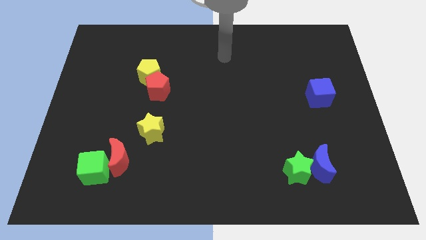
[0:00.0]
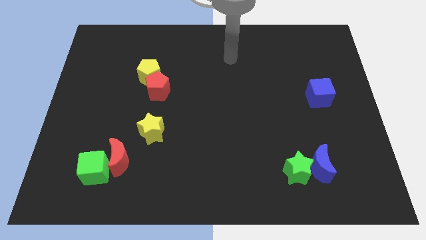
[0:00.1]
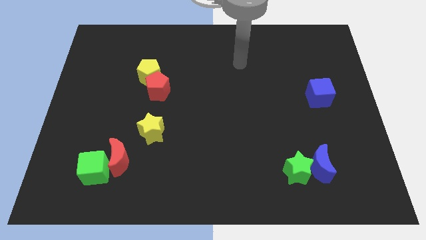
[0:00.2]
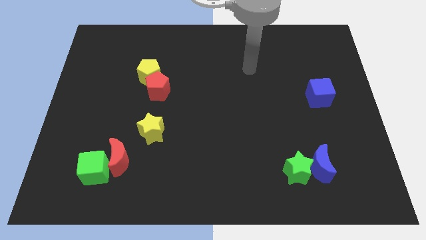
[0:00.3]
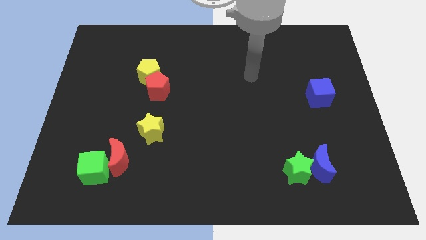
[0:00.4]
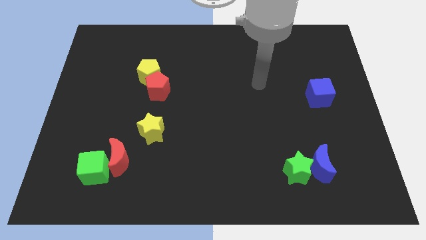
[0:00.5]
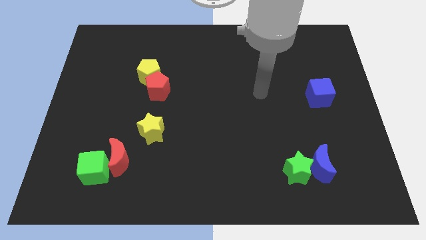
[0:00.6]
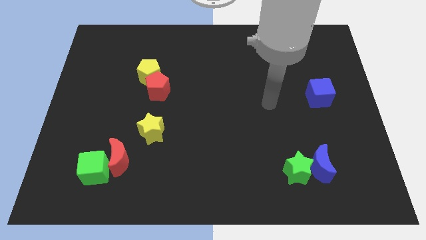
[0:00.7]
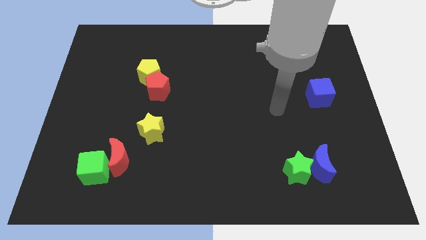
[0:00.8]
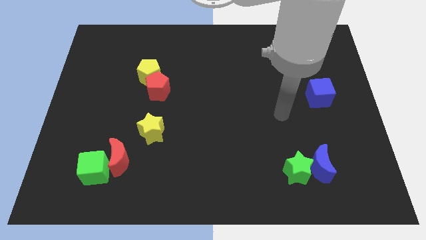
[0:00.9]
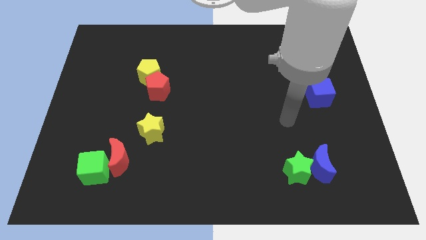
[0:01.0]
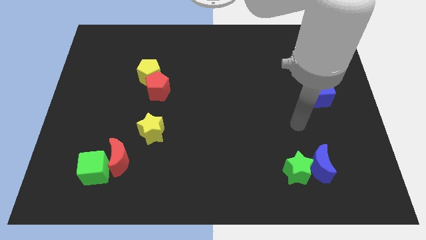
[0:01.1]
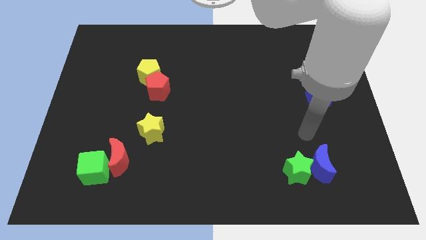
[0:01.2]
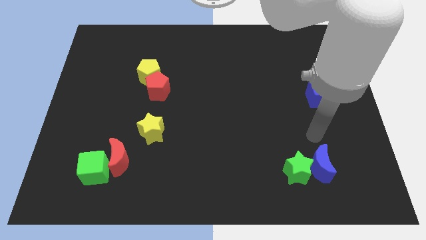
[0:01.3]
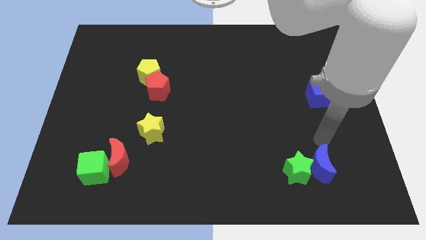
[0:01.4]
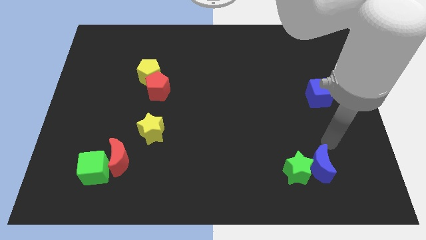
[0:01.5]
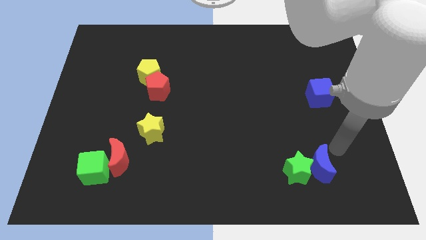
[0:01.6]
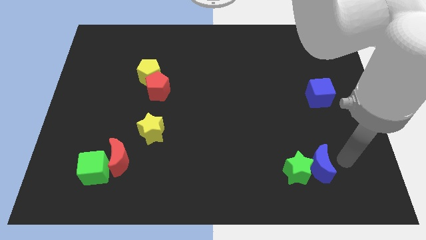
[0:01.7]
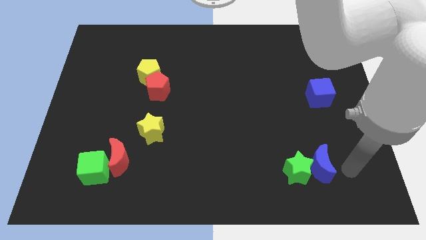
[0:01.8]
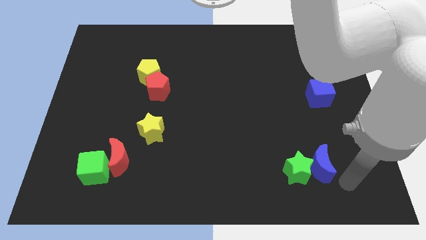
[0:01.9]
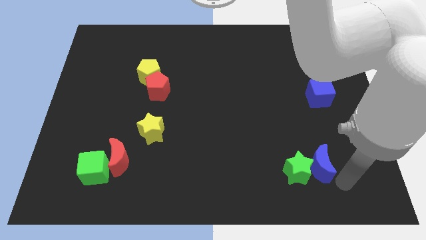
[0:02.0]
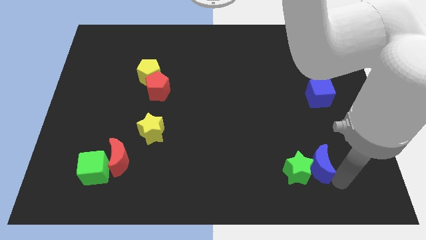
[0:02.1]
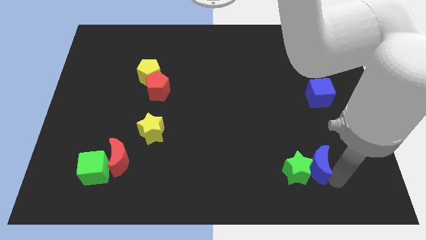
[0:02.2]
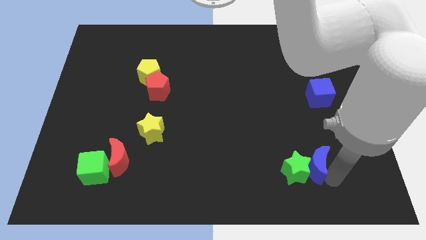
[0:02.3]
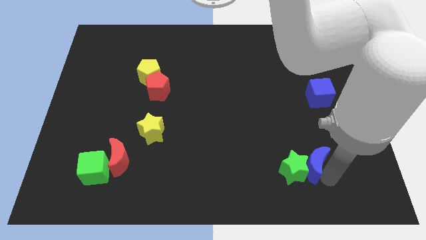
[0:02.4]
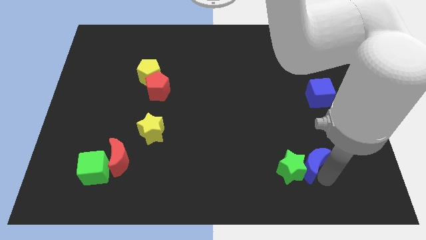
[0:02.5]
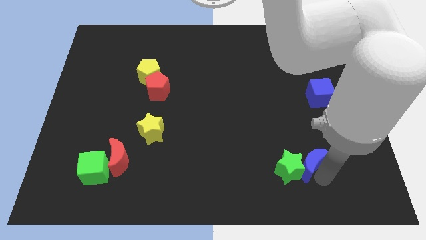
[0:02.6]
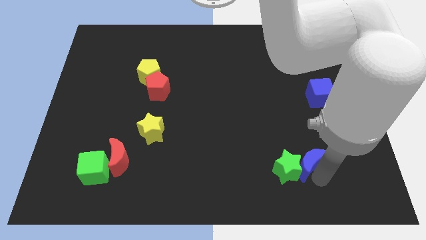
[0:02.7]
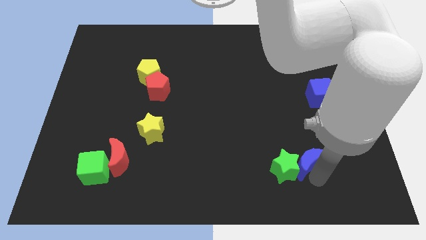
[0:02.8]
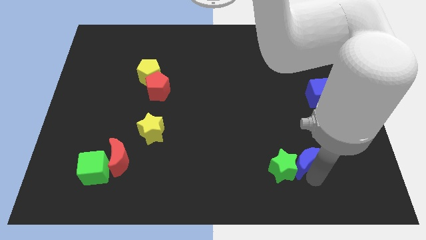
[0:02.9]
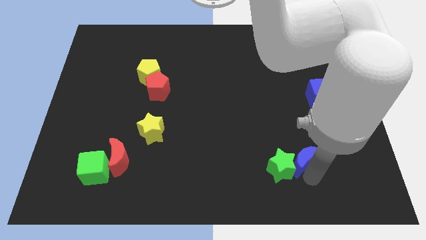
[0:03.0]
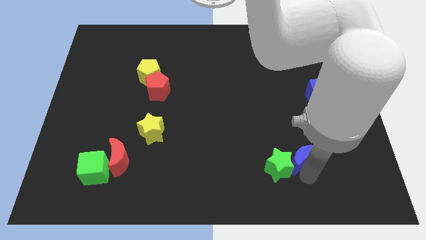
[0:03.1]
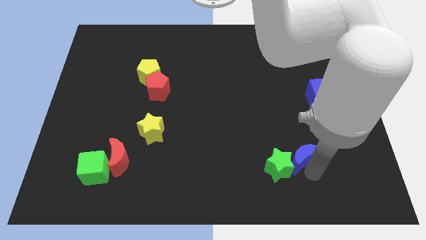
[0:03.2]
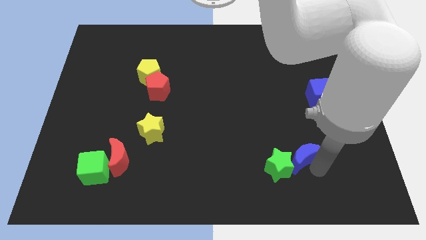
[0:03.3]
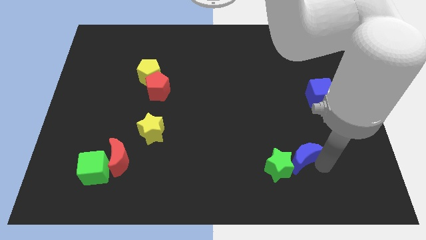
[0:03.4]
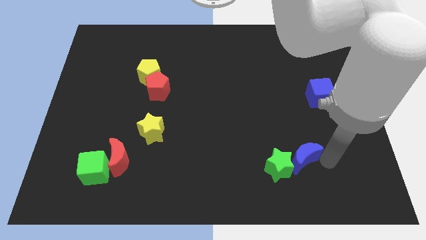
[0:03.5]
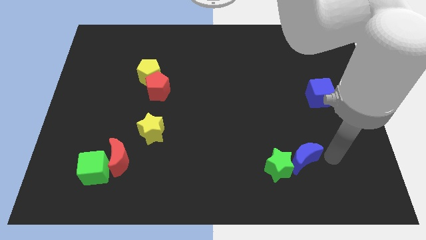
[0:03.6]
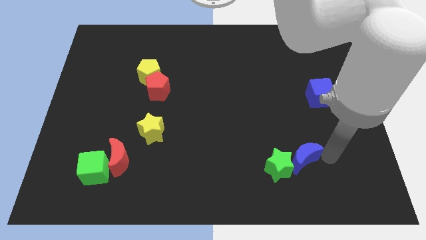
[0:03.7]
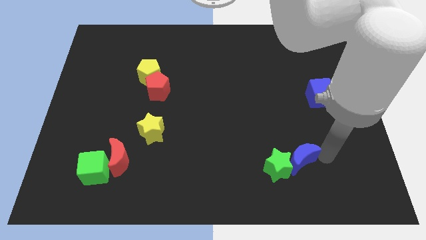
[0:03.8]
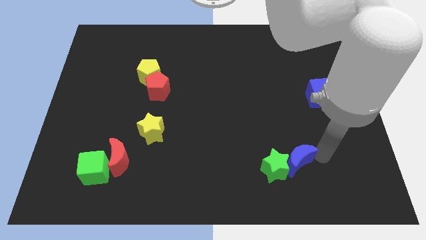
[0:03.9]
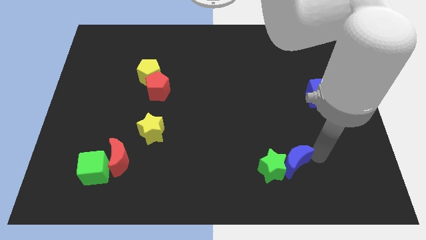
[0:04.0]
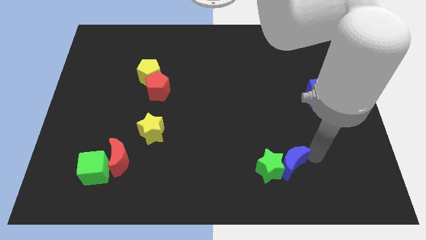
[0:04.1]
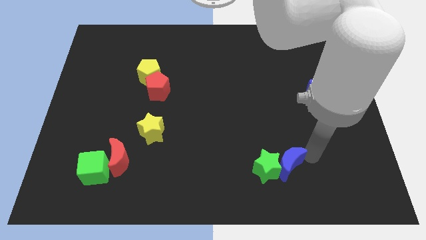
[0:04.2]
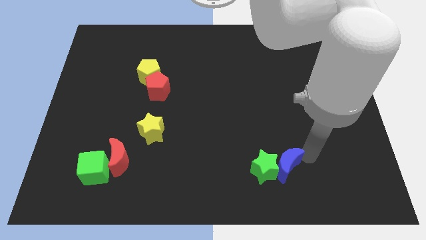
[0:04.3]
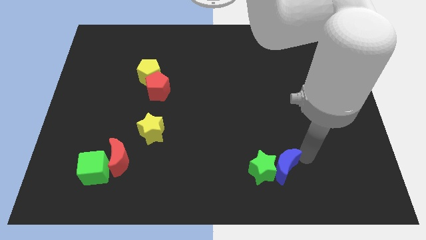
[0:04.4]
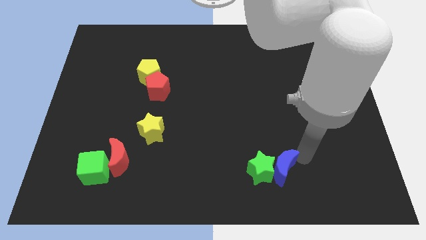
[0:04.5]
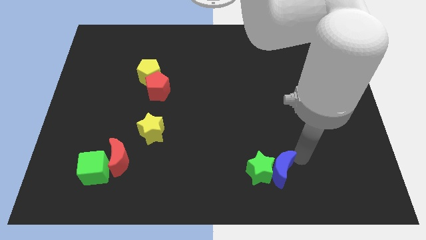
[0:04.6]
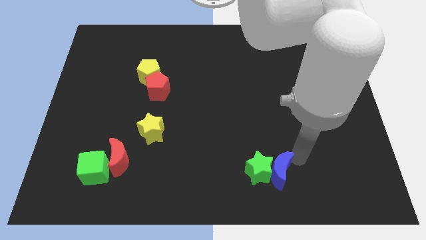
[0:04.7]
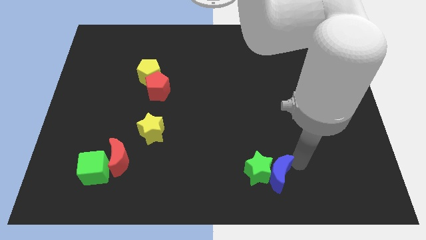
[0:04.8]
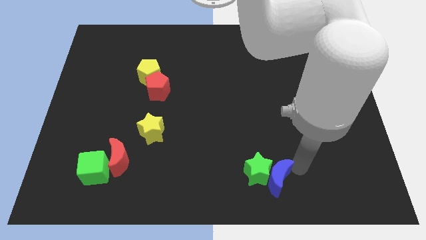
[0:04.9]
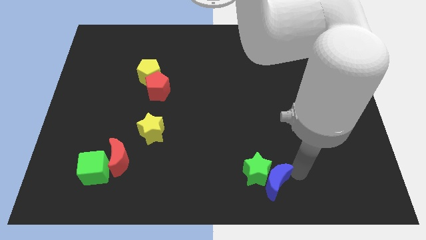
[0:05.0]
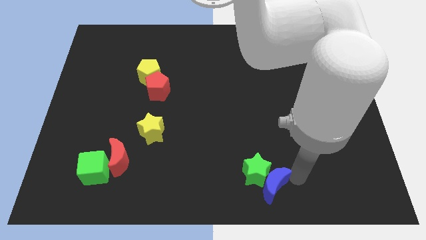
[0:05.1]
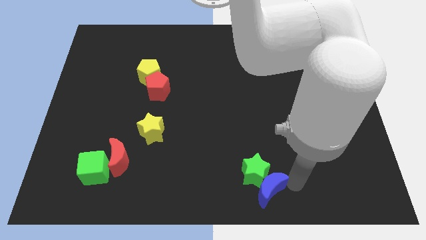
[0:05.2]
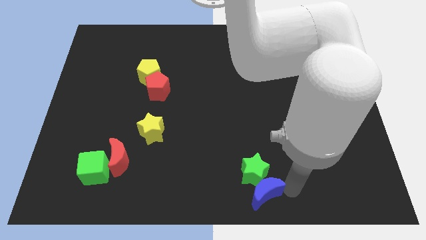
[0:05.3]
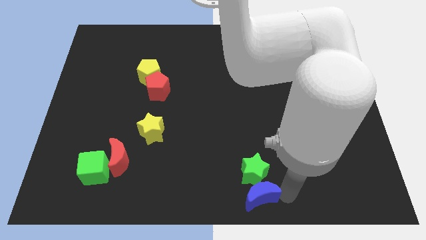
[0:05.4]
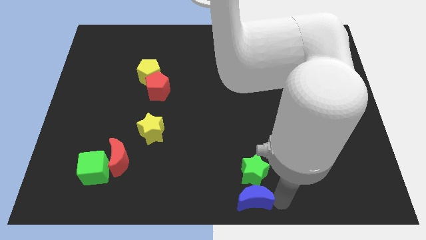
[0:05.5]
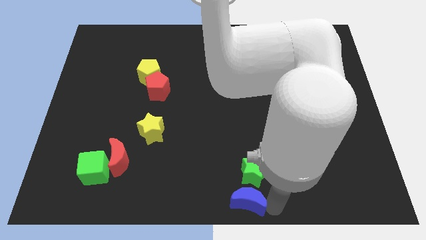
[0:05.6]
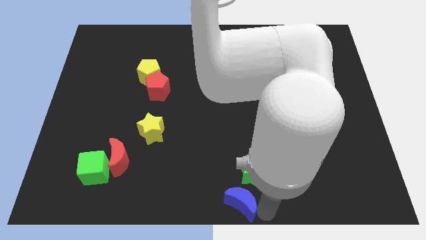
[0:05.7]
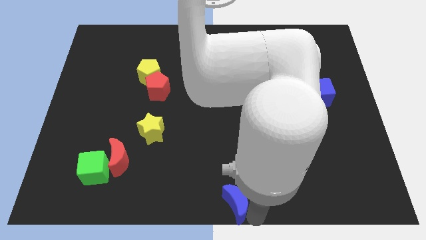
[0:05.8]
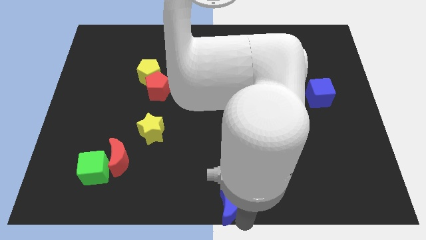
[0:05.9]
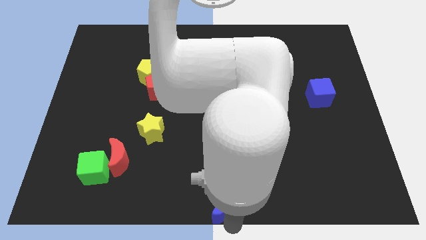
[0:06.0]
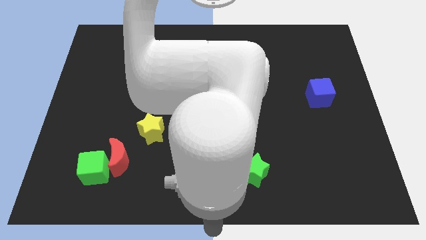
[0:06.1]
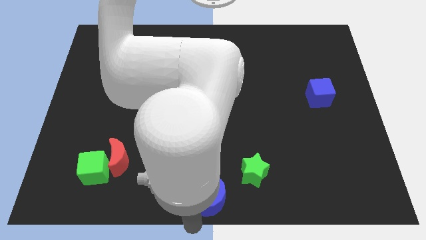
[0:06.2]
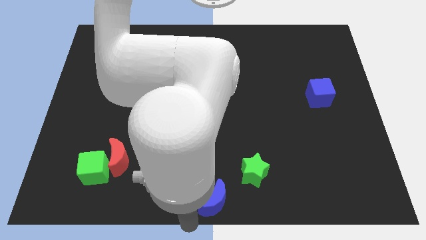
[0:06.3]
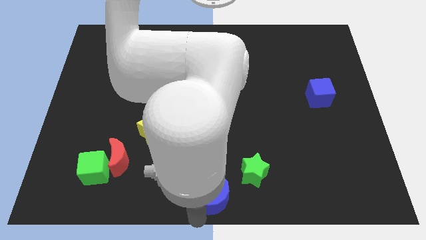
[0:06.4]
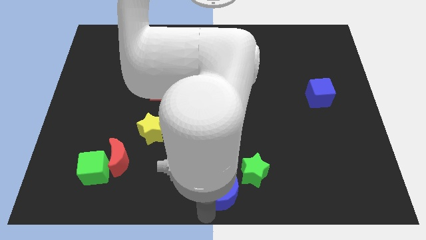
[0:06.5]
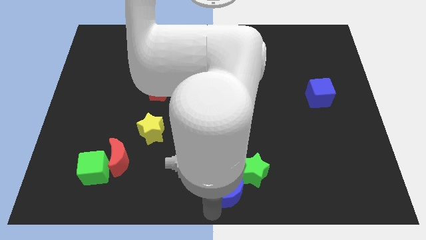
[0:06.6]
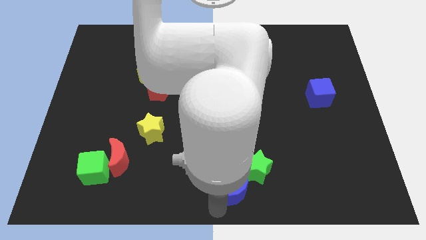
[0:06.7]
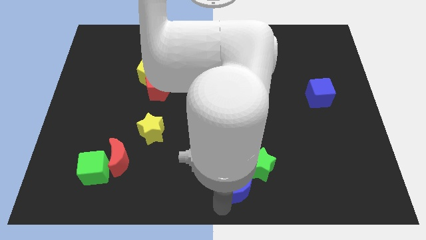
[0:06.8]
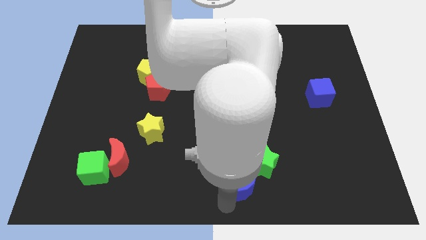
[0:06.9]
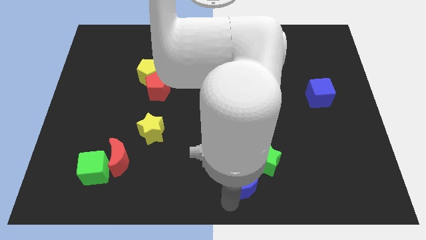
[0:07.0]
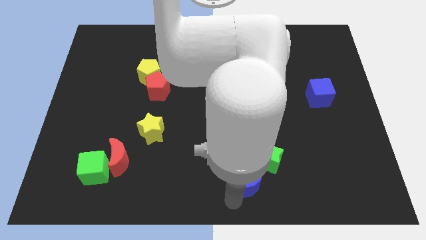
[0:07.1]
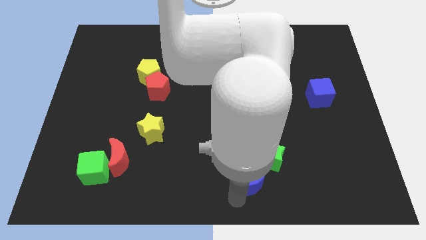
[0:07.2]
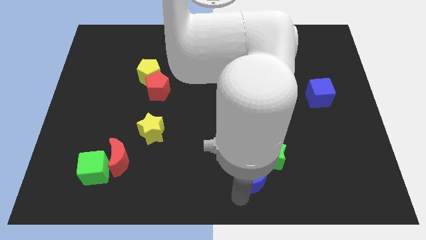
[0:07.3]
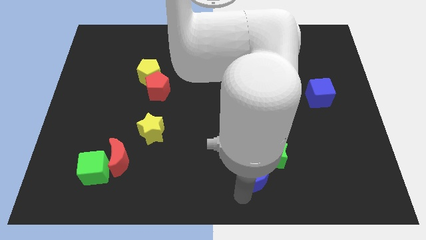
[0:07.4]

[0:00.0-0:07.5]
slide the blue moon just left of the green star
